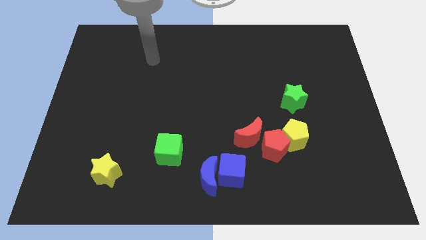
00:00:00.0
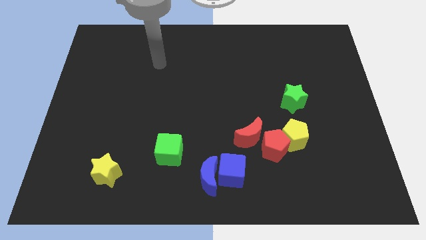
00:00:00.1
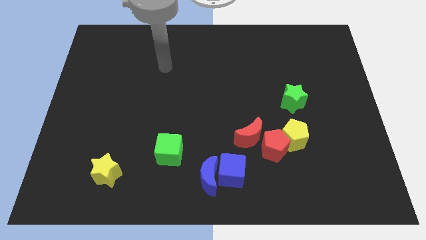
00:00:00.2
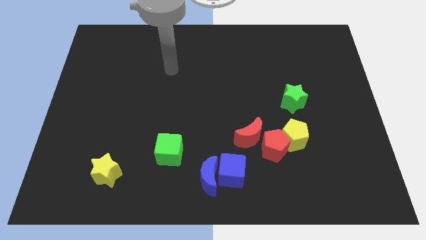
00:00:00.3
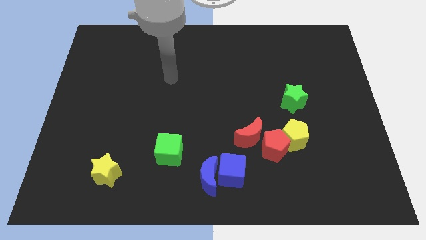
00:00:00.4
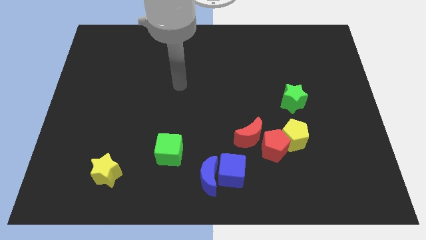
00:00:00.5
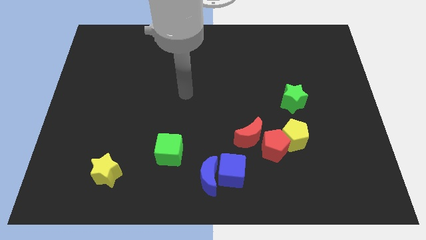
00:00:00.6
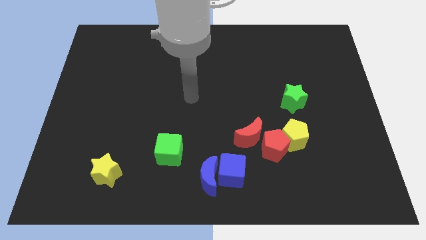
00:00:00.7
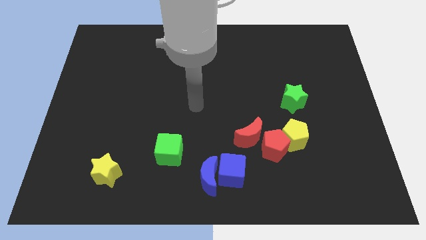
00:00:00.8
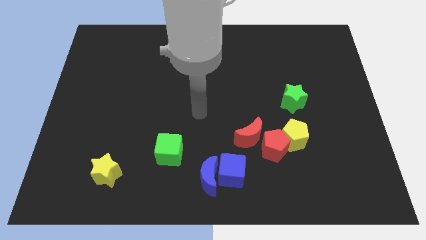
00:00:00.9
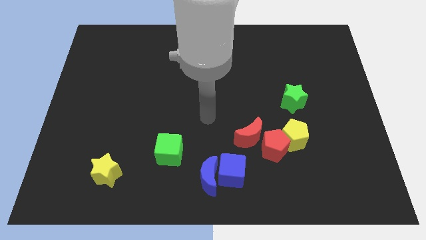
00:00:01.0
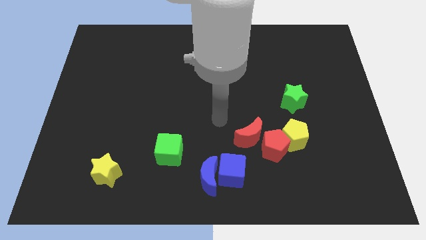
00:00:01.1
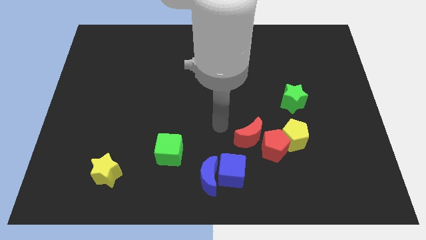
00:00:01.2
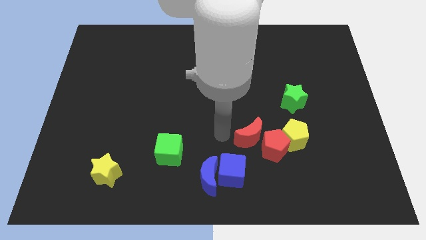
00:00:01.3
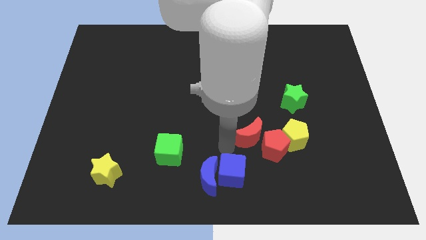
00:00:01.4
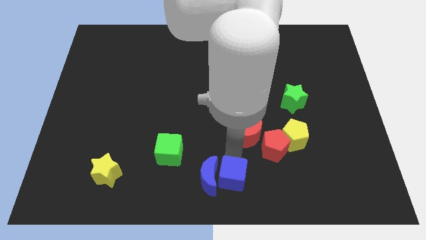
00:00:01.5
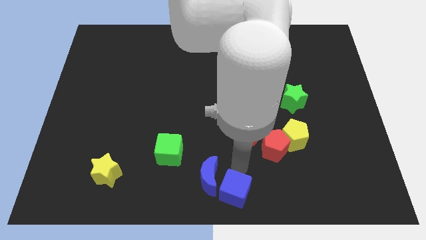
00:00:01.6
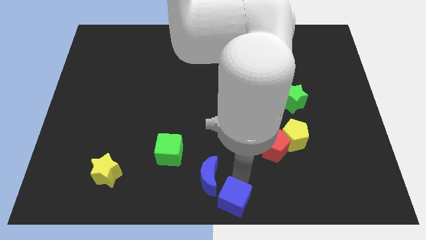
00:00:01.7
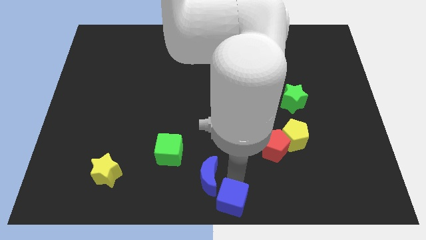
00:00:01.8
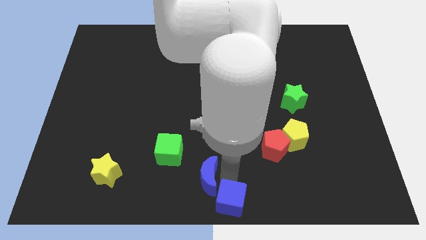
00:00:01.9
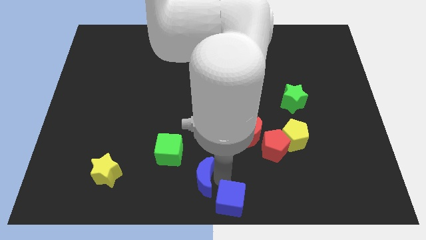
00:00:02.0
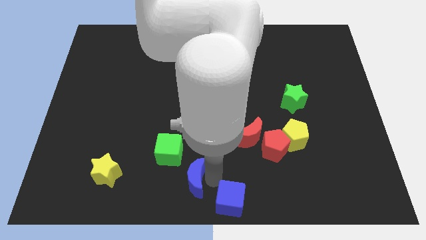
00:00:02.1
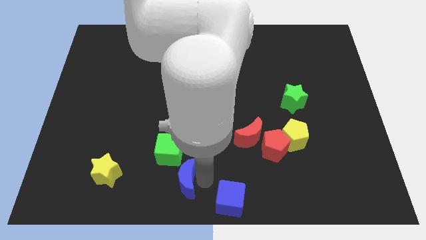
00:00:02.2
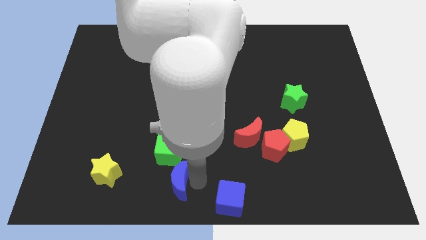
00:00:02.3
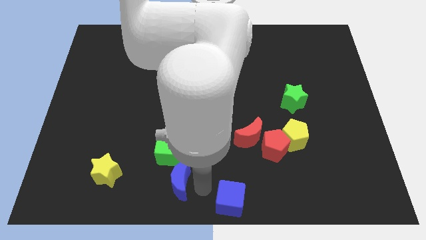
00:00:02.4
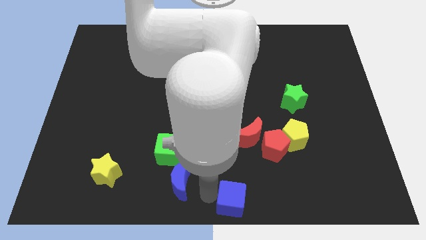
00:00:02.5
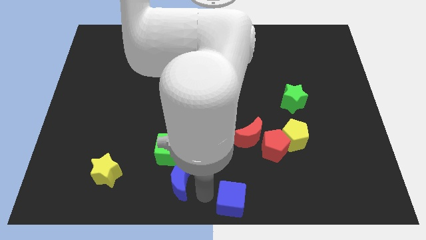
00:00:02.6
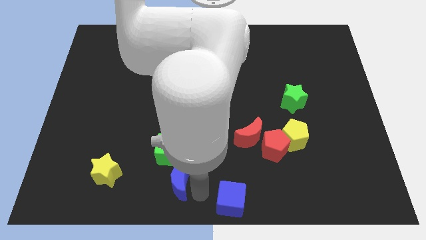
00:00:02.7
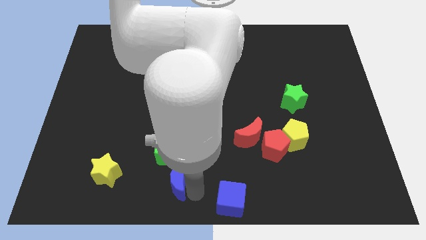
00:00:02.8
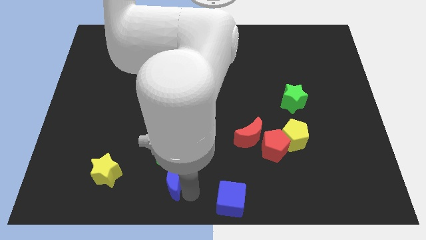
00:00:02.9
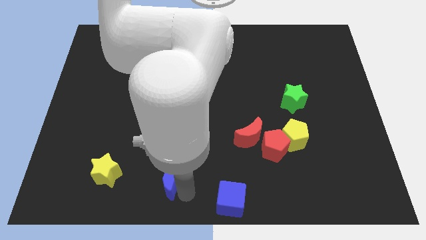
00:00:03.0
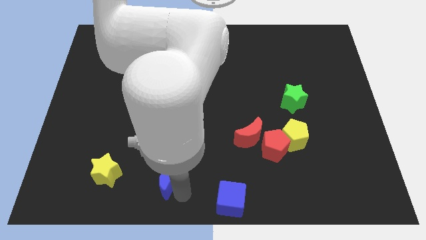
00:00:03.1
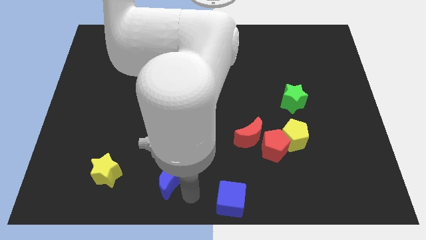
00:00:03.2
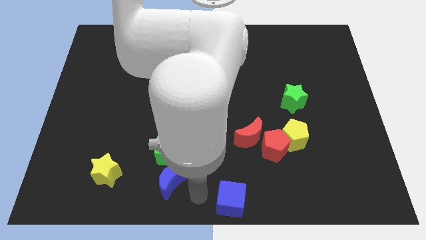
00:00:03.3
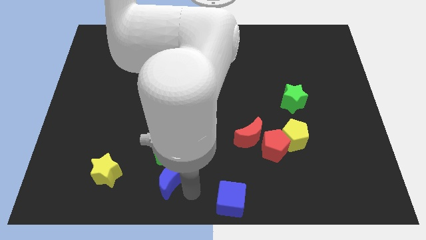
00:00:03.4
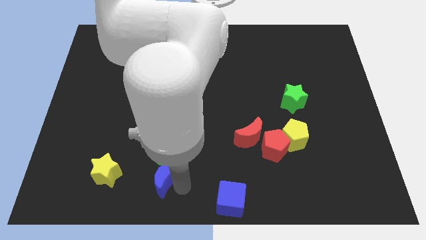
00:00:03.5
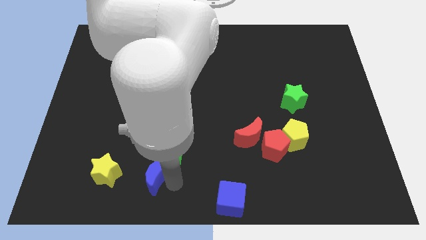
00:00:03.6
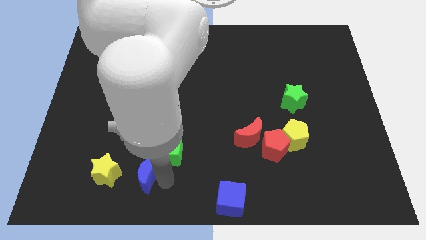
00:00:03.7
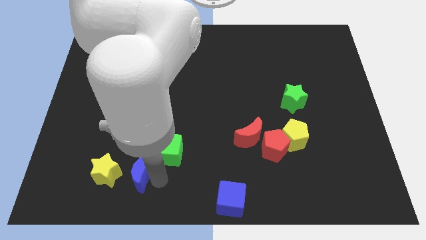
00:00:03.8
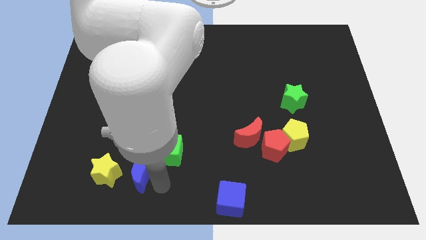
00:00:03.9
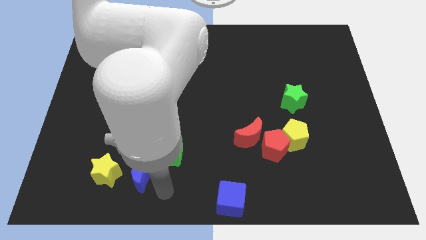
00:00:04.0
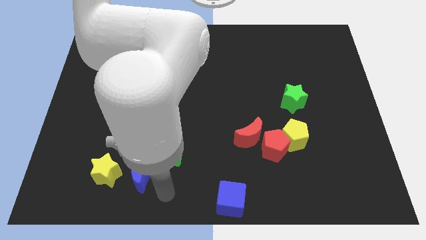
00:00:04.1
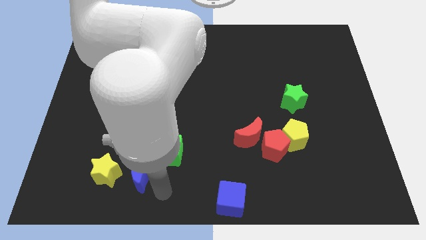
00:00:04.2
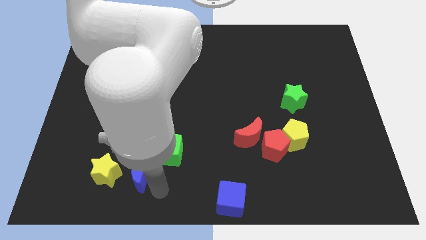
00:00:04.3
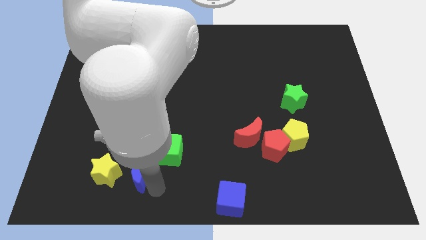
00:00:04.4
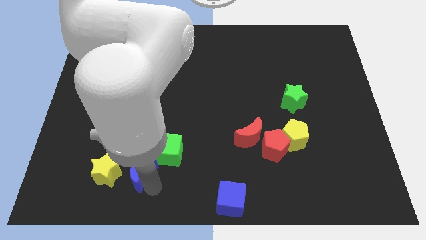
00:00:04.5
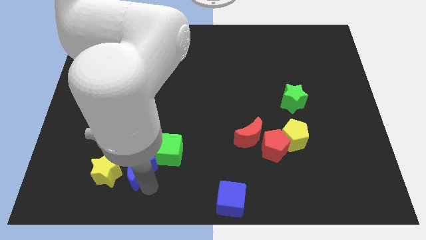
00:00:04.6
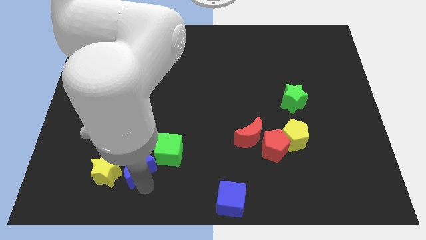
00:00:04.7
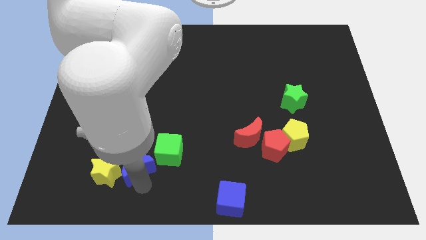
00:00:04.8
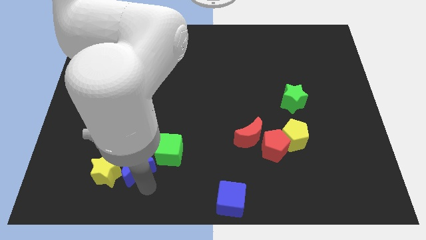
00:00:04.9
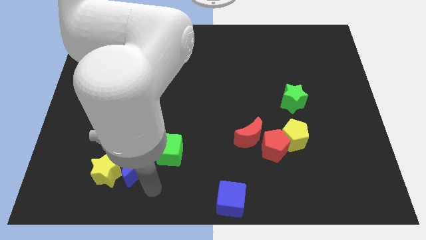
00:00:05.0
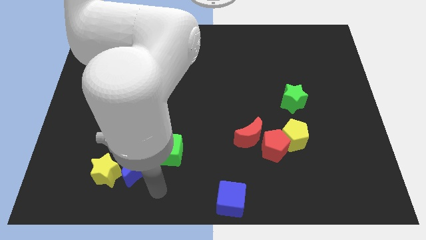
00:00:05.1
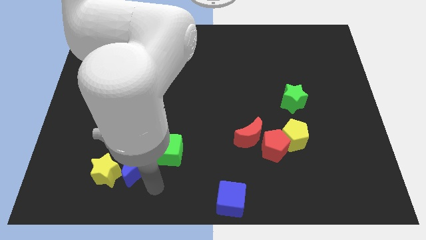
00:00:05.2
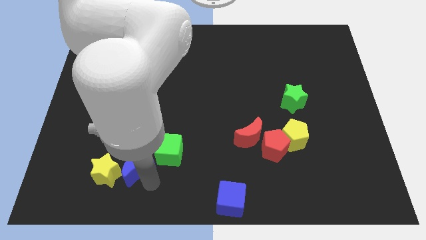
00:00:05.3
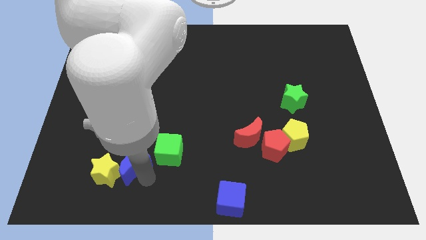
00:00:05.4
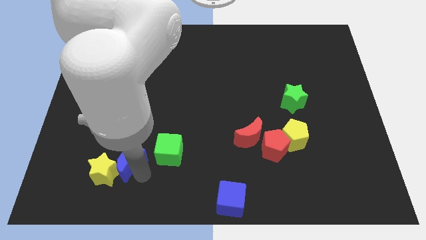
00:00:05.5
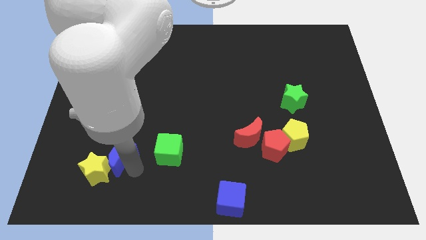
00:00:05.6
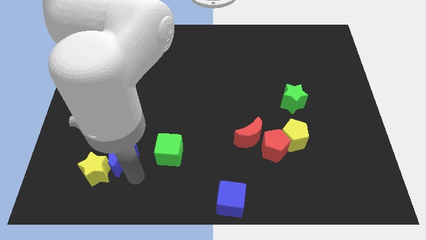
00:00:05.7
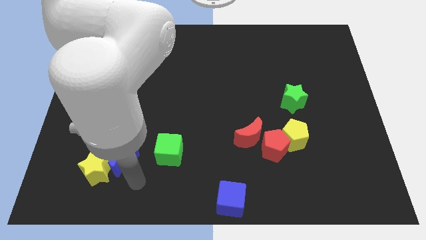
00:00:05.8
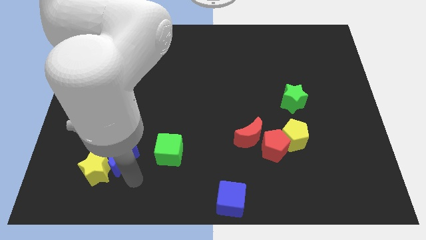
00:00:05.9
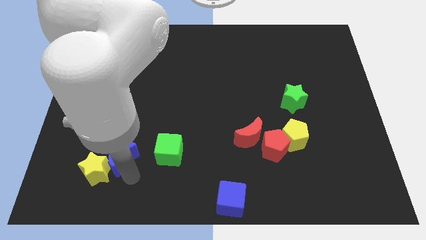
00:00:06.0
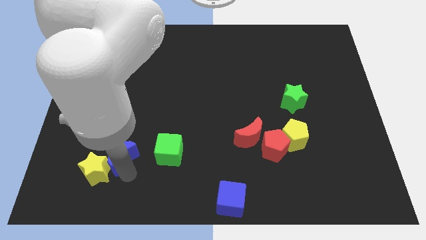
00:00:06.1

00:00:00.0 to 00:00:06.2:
push the blue moon above the yellow star

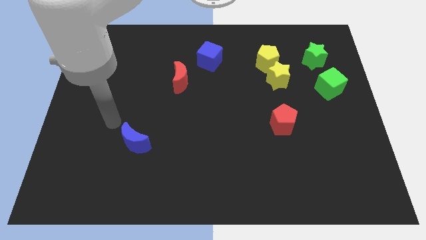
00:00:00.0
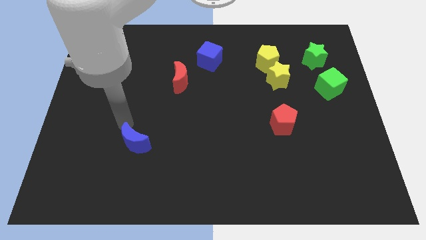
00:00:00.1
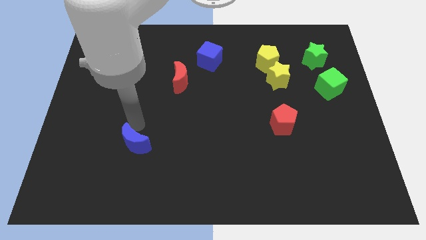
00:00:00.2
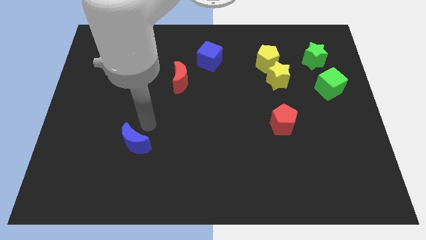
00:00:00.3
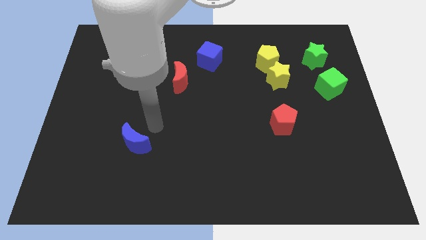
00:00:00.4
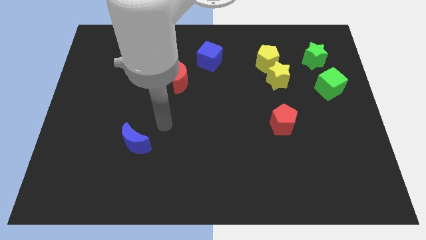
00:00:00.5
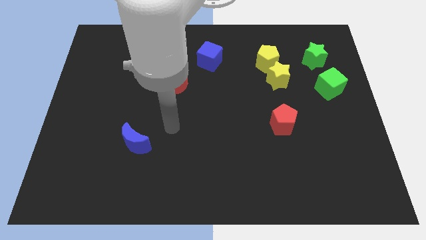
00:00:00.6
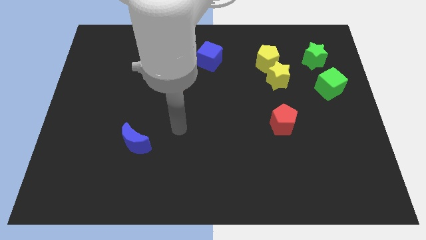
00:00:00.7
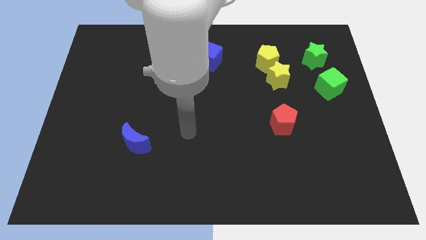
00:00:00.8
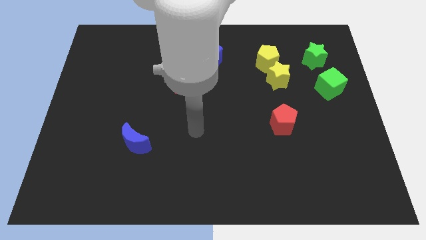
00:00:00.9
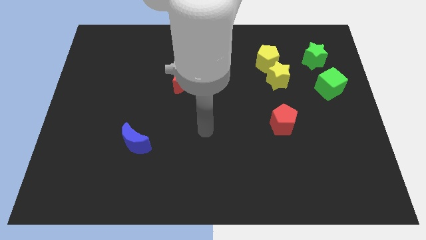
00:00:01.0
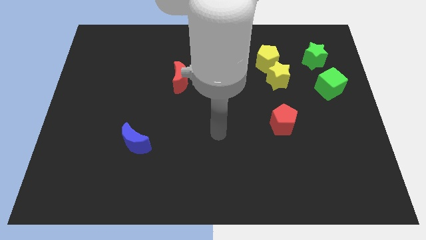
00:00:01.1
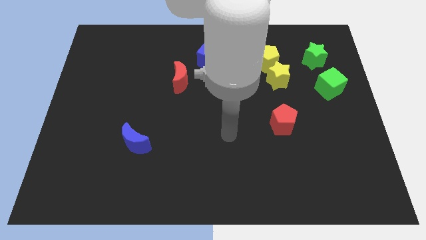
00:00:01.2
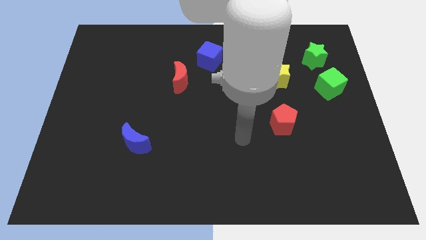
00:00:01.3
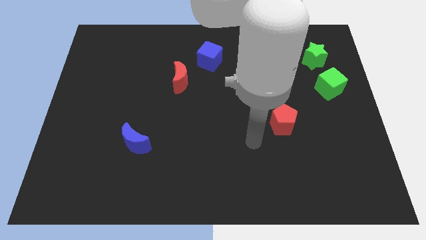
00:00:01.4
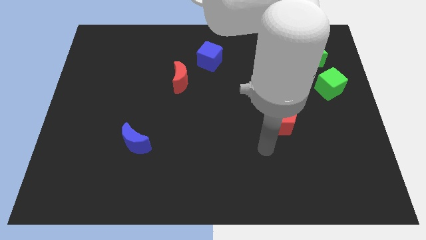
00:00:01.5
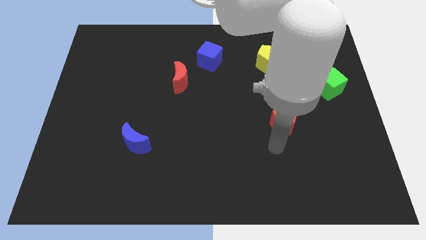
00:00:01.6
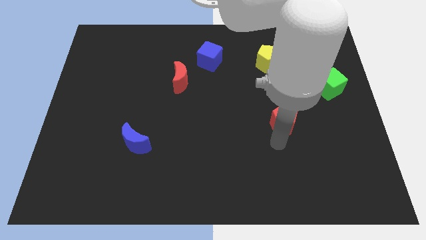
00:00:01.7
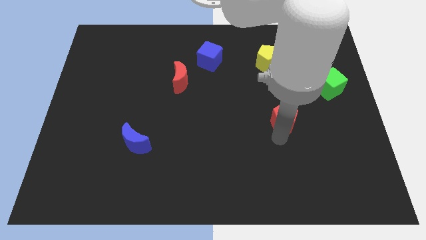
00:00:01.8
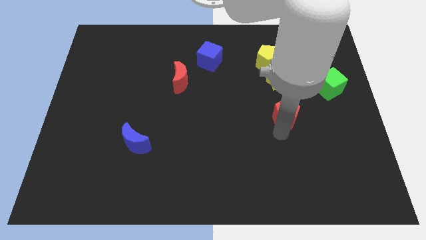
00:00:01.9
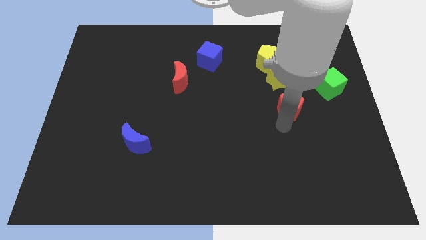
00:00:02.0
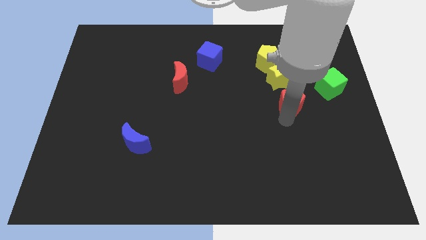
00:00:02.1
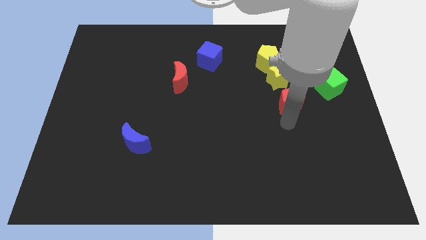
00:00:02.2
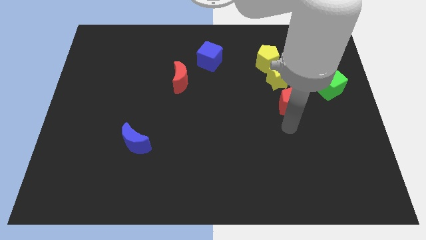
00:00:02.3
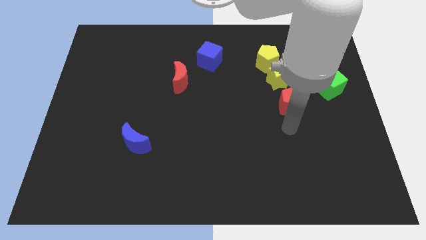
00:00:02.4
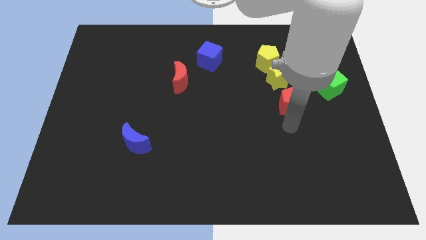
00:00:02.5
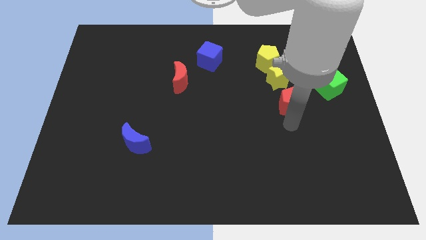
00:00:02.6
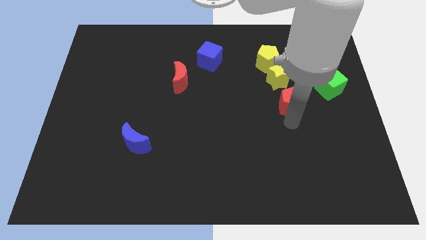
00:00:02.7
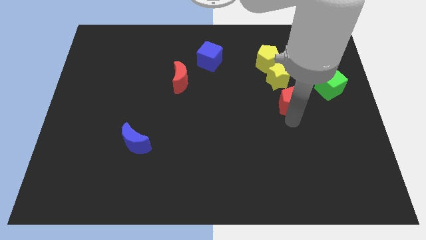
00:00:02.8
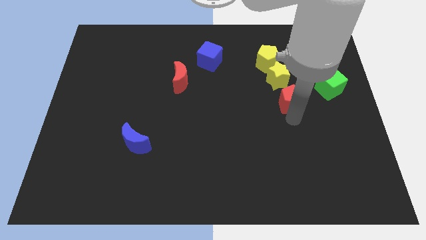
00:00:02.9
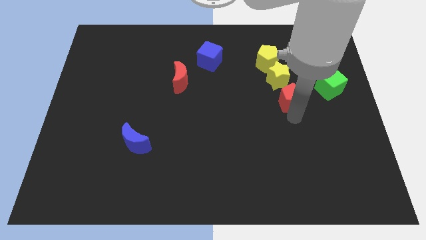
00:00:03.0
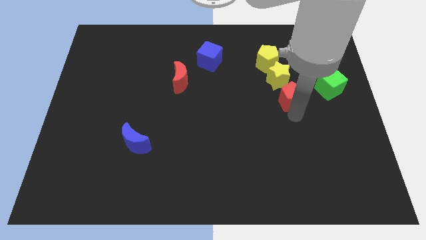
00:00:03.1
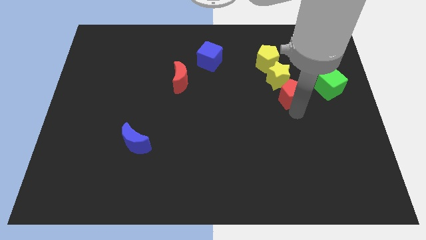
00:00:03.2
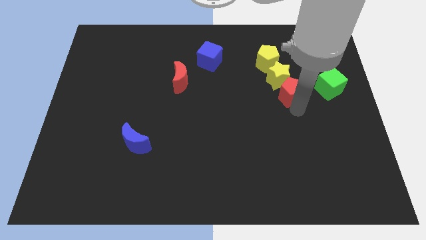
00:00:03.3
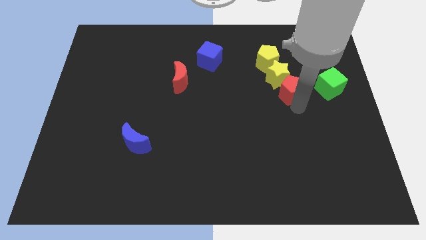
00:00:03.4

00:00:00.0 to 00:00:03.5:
push the red pentagon to the bottom right of the yellow pentagon
